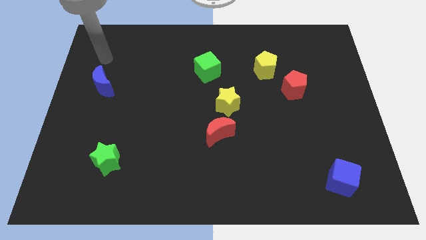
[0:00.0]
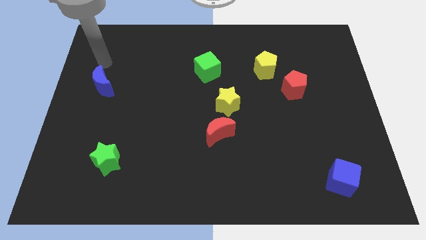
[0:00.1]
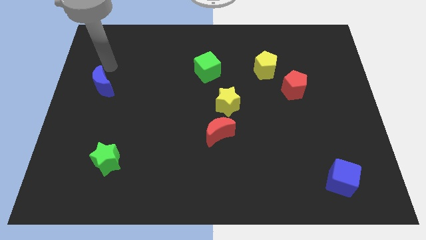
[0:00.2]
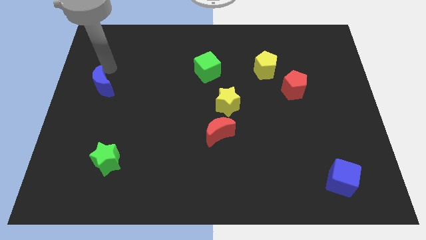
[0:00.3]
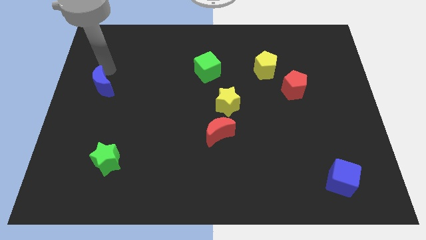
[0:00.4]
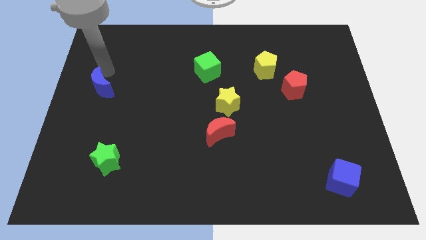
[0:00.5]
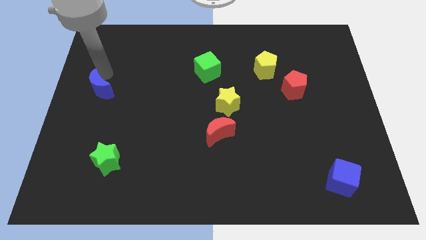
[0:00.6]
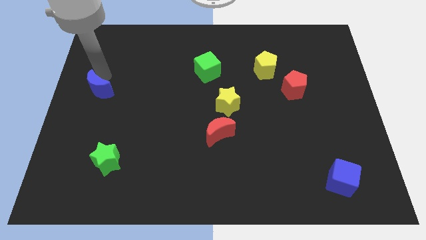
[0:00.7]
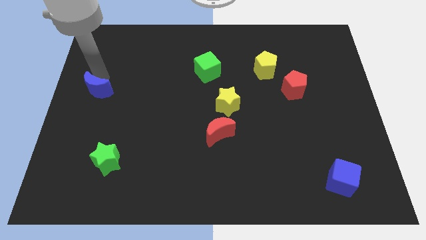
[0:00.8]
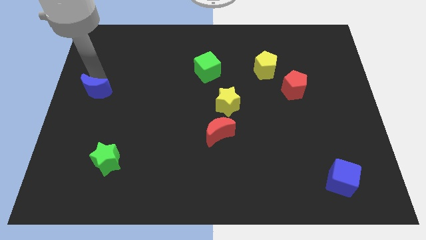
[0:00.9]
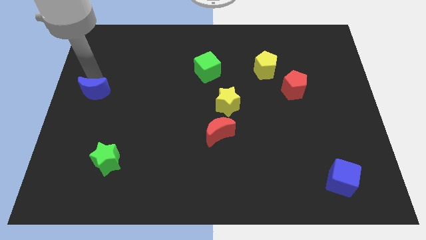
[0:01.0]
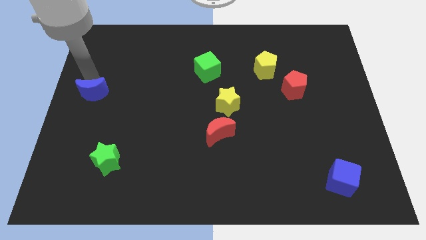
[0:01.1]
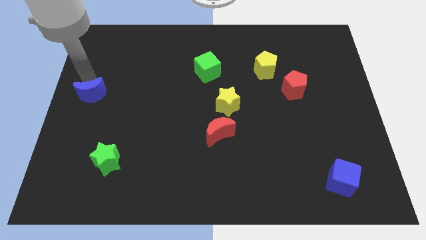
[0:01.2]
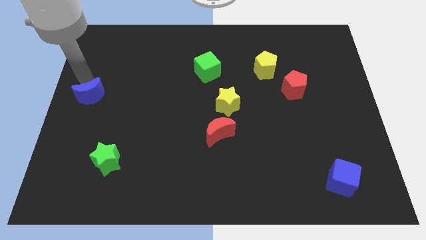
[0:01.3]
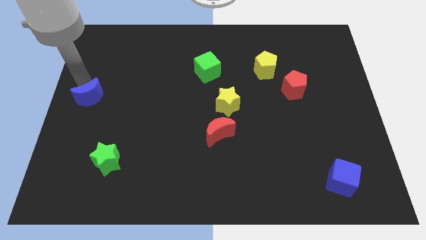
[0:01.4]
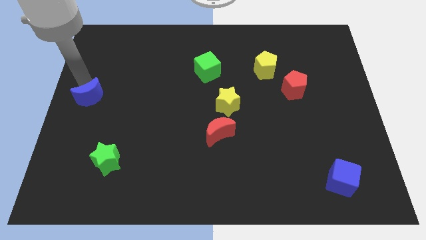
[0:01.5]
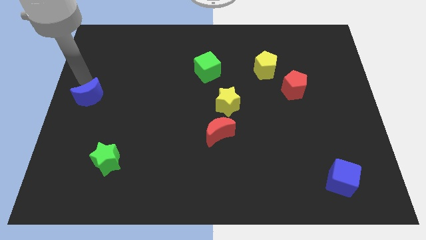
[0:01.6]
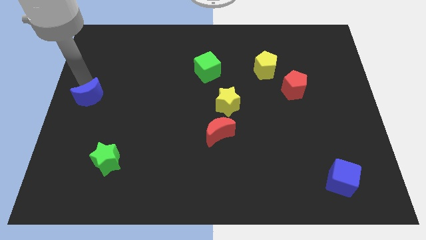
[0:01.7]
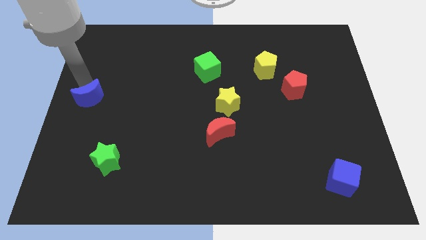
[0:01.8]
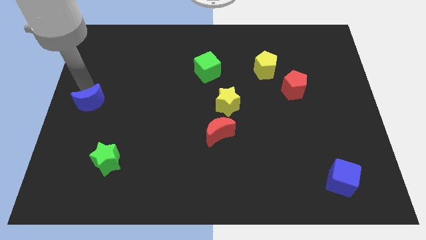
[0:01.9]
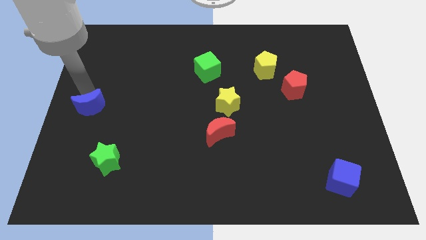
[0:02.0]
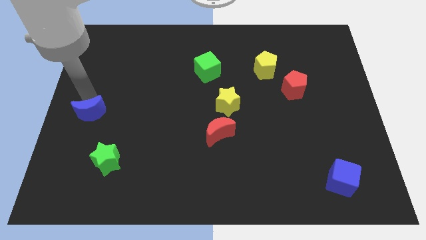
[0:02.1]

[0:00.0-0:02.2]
slightly push the blue moon downwards

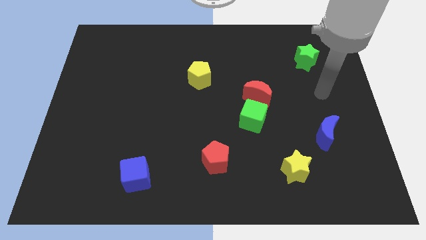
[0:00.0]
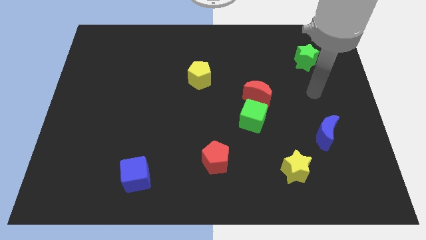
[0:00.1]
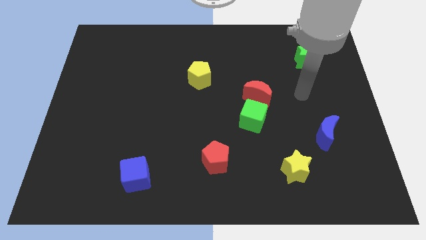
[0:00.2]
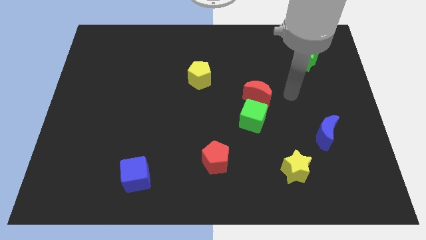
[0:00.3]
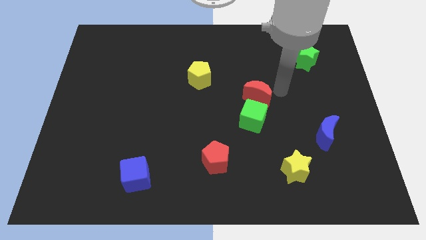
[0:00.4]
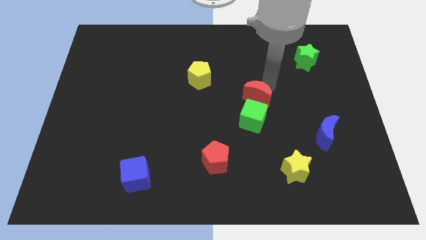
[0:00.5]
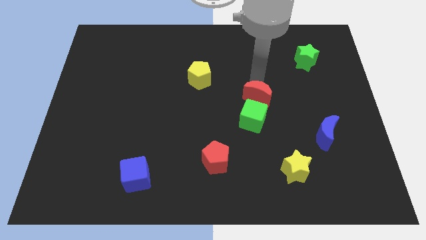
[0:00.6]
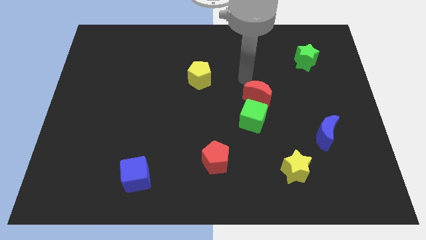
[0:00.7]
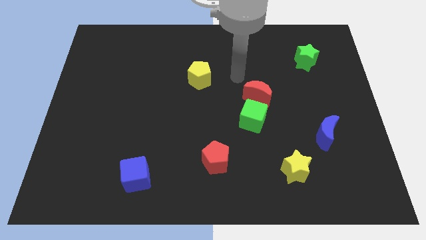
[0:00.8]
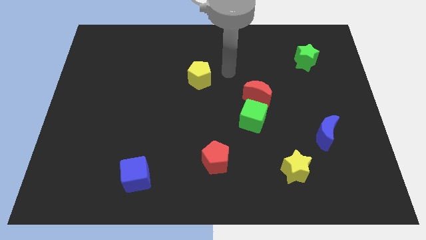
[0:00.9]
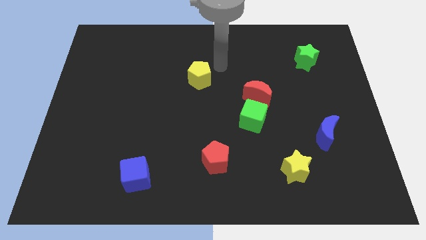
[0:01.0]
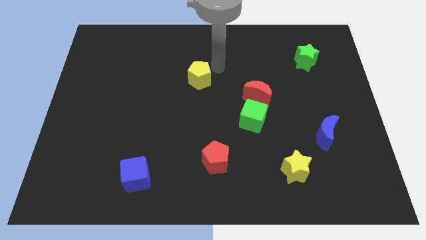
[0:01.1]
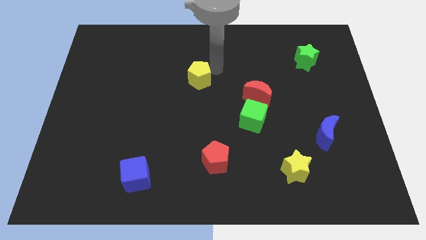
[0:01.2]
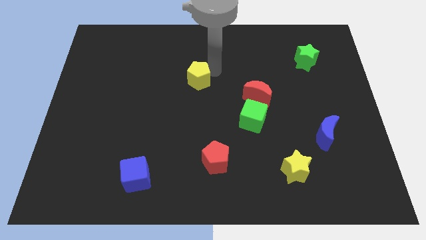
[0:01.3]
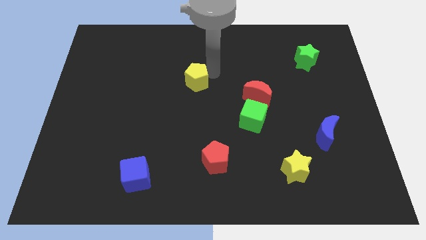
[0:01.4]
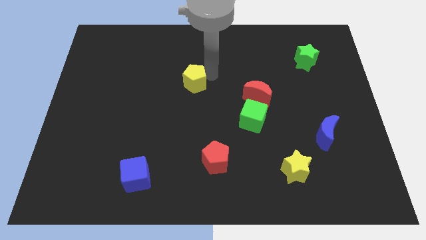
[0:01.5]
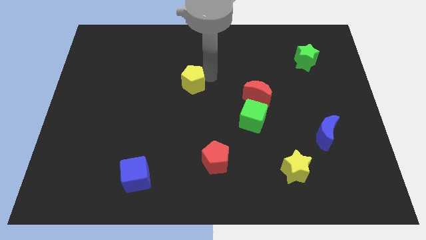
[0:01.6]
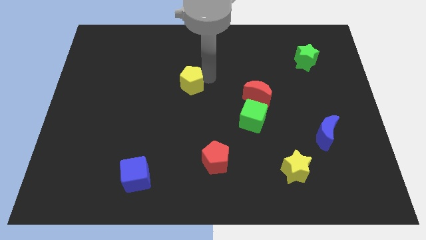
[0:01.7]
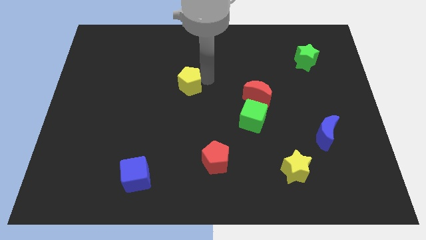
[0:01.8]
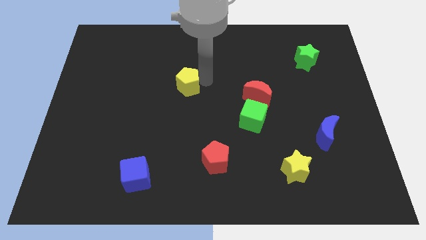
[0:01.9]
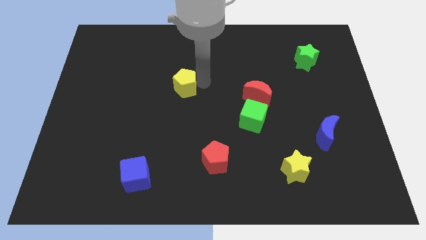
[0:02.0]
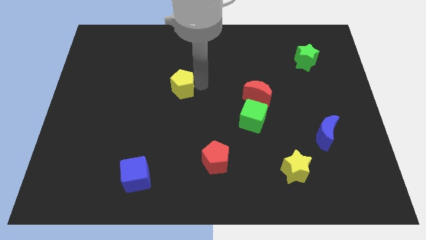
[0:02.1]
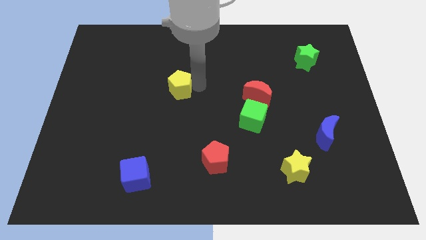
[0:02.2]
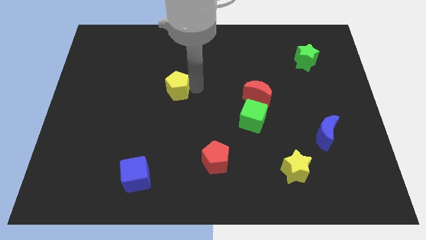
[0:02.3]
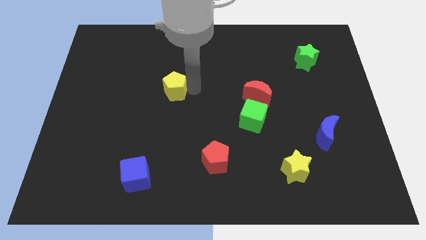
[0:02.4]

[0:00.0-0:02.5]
slide the yellow pentagon a little diagonally down and left

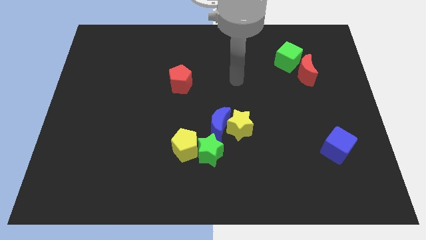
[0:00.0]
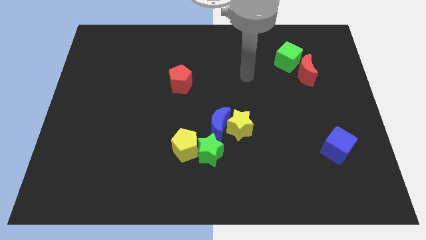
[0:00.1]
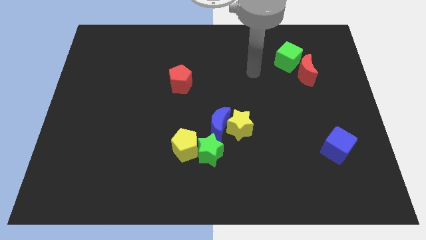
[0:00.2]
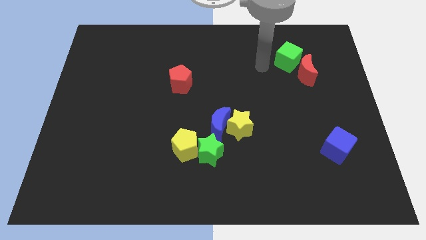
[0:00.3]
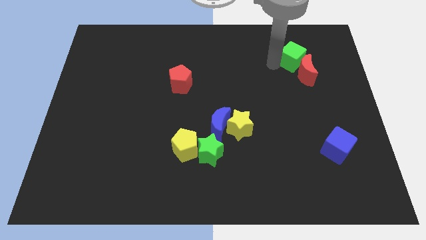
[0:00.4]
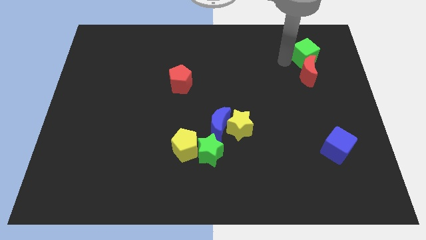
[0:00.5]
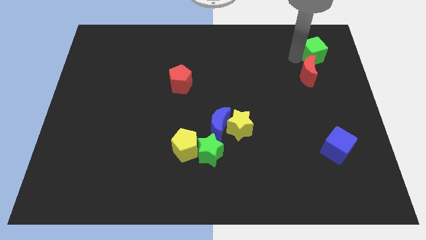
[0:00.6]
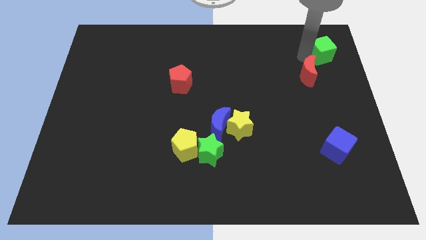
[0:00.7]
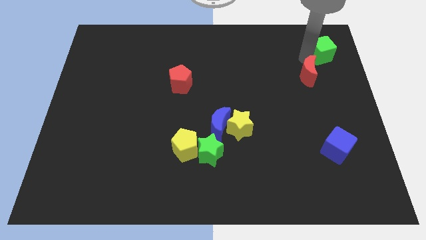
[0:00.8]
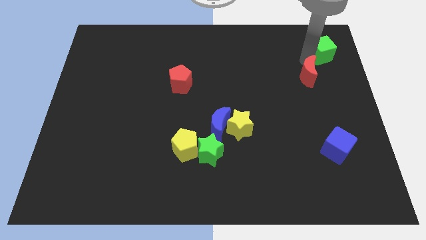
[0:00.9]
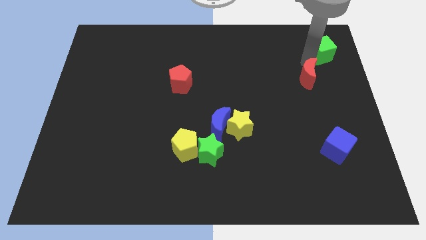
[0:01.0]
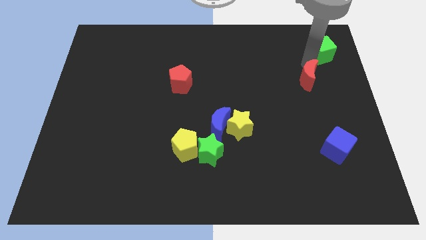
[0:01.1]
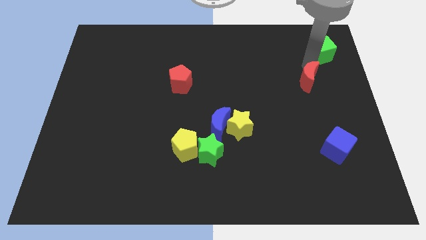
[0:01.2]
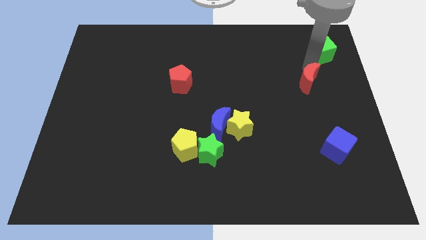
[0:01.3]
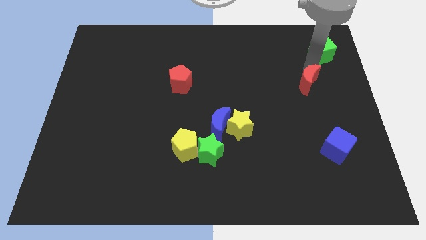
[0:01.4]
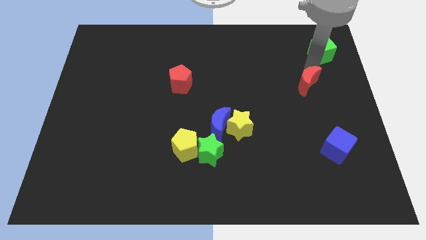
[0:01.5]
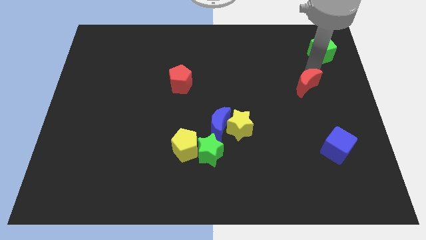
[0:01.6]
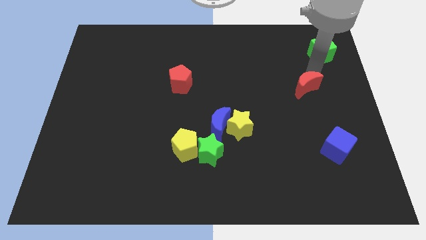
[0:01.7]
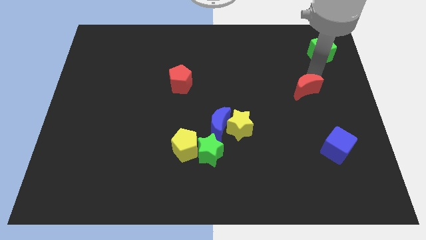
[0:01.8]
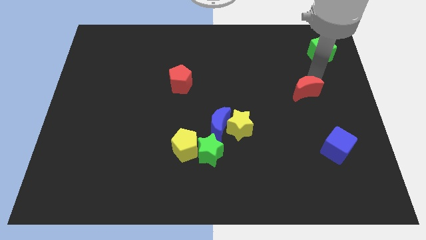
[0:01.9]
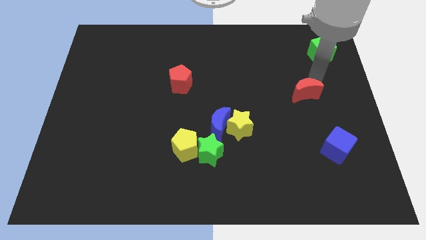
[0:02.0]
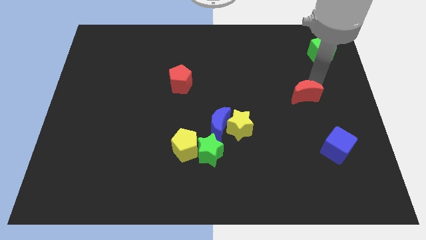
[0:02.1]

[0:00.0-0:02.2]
slightly slide the red moon down

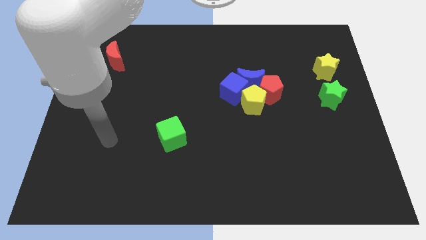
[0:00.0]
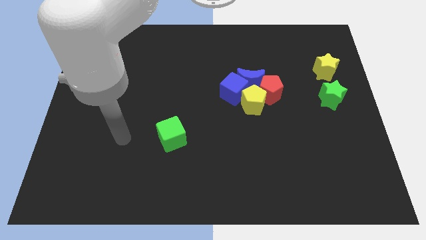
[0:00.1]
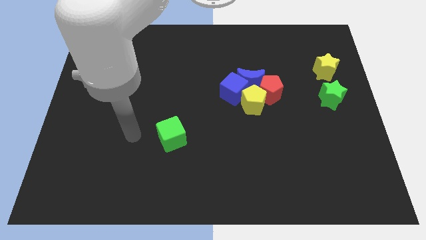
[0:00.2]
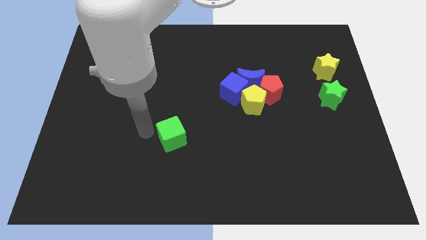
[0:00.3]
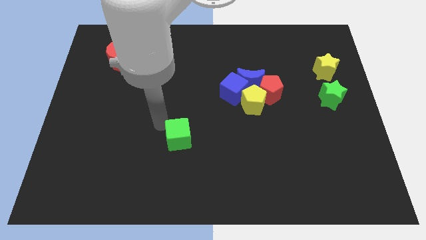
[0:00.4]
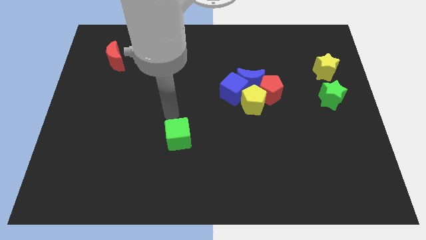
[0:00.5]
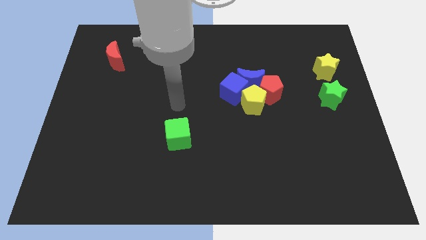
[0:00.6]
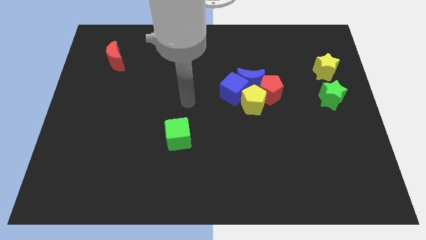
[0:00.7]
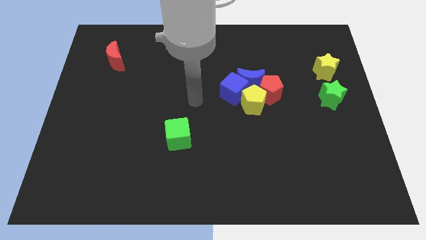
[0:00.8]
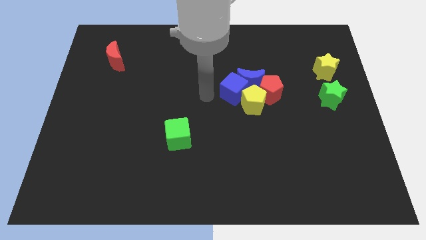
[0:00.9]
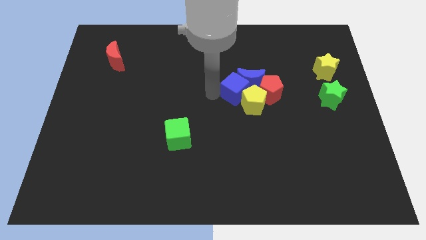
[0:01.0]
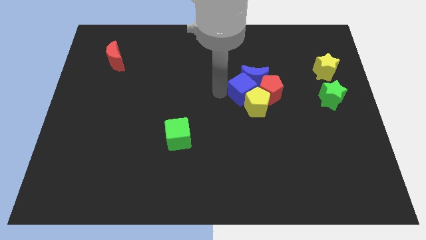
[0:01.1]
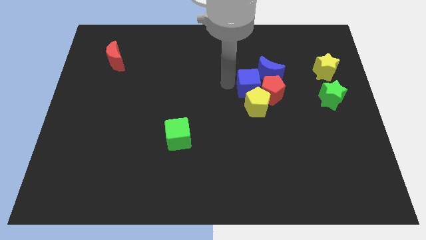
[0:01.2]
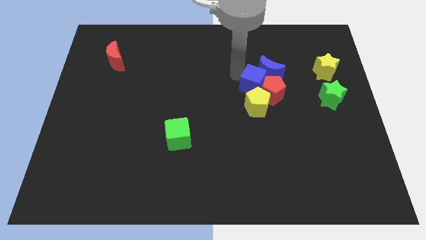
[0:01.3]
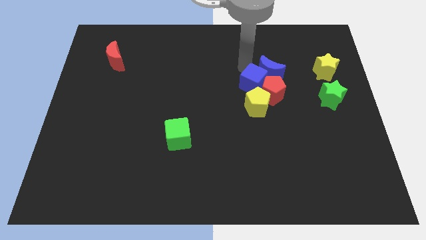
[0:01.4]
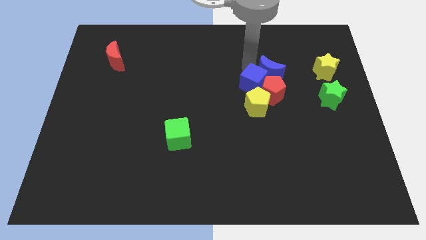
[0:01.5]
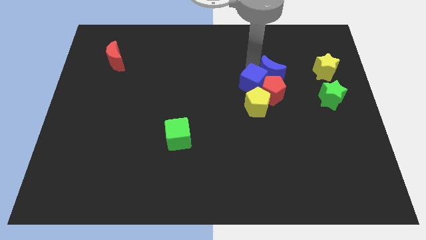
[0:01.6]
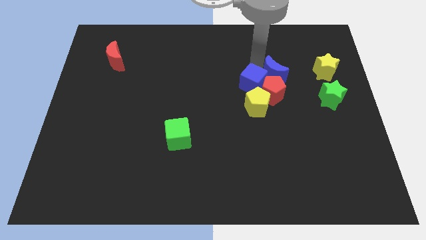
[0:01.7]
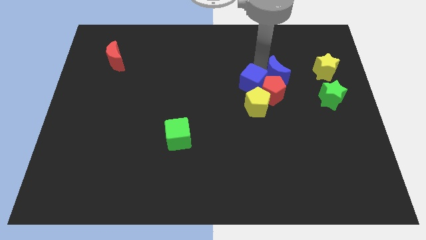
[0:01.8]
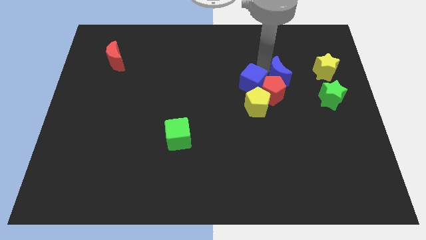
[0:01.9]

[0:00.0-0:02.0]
push the blue moon right somewhat
